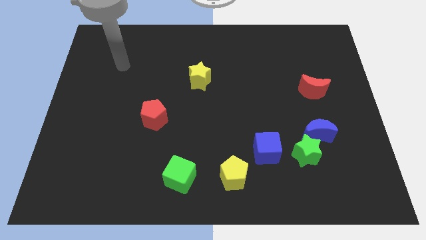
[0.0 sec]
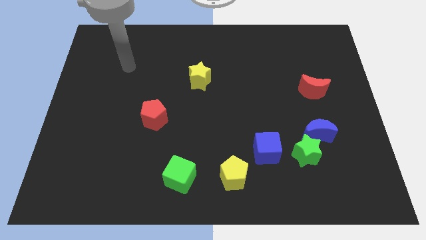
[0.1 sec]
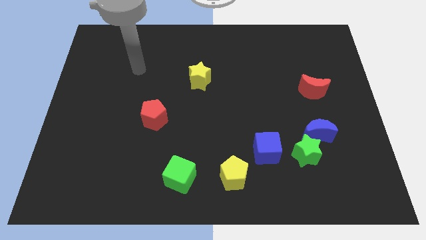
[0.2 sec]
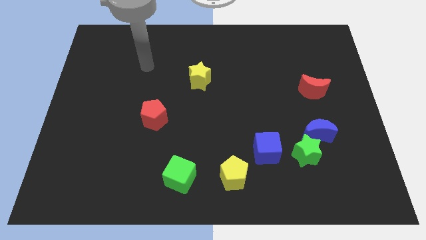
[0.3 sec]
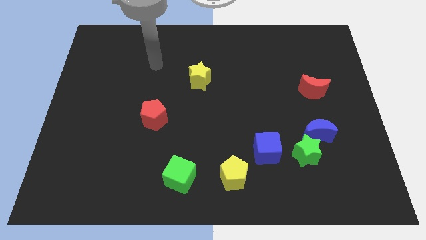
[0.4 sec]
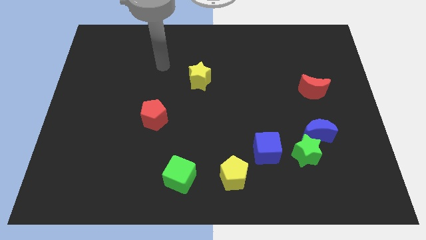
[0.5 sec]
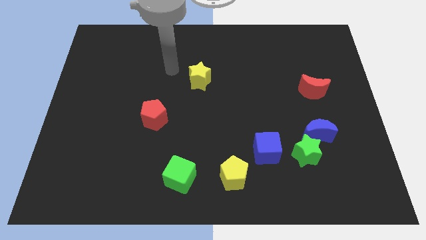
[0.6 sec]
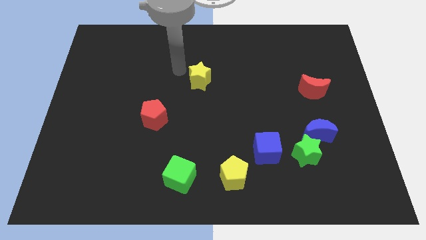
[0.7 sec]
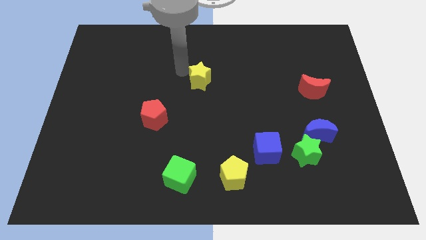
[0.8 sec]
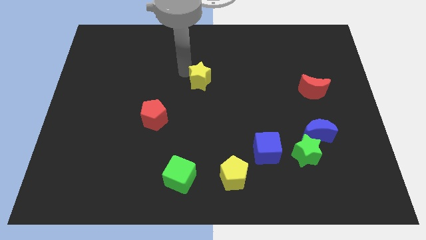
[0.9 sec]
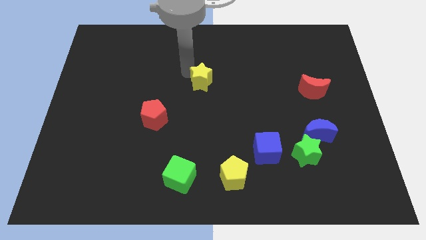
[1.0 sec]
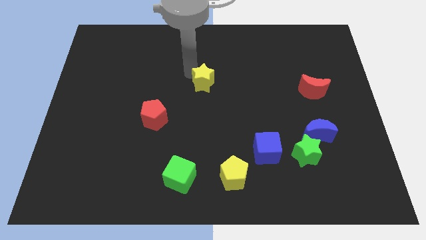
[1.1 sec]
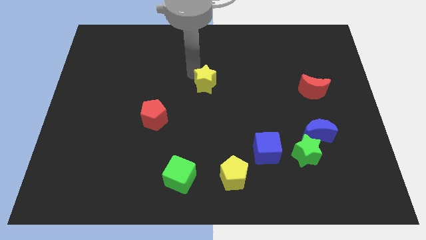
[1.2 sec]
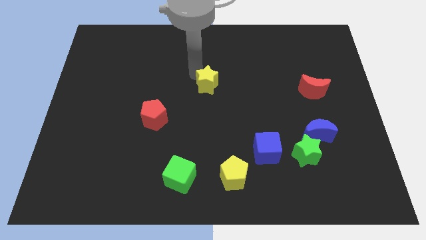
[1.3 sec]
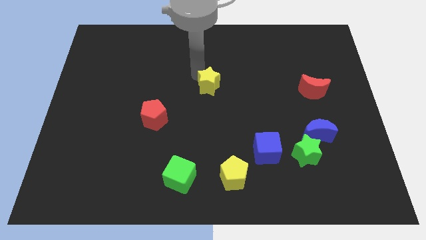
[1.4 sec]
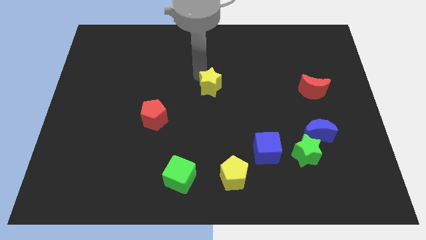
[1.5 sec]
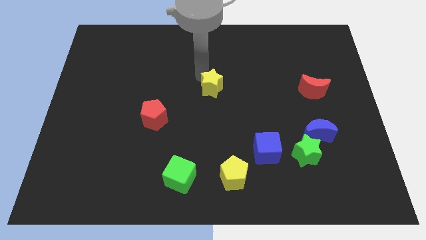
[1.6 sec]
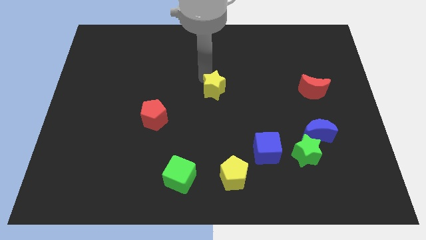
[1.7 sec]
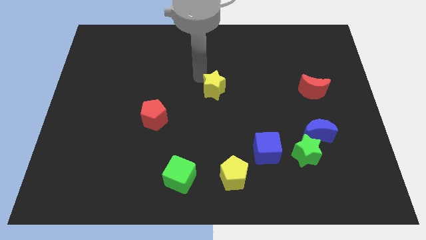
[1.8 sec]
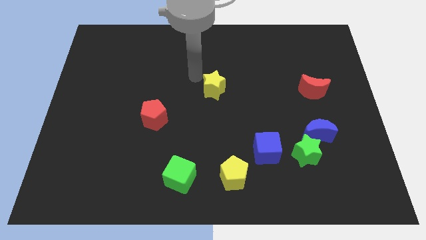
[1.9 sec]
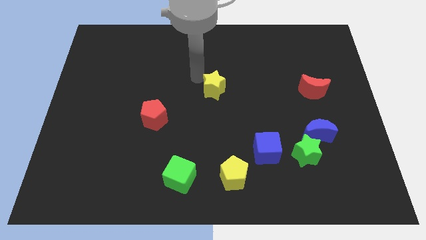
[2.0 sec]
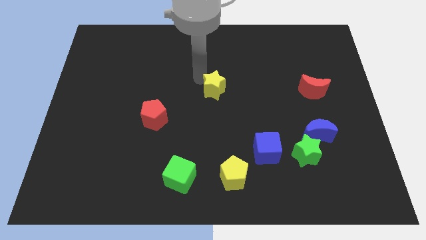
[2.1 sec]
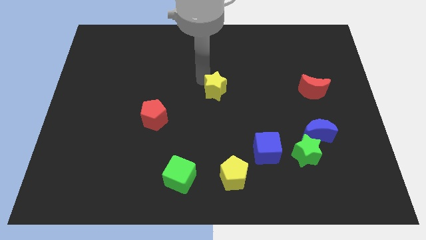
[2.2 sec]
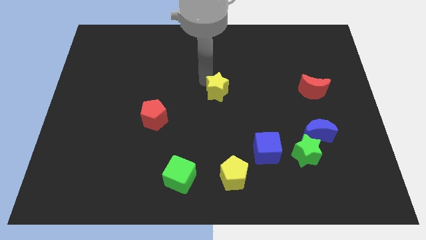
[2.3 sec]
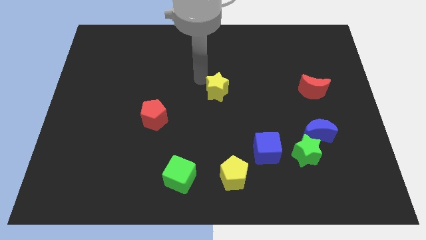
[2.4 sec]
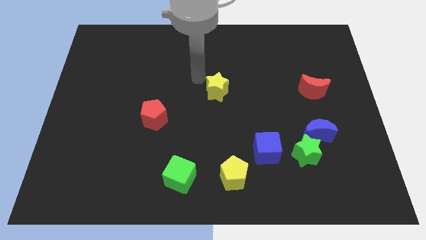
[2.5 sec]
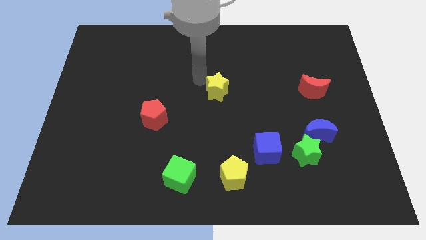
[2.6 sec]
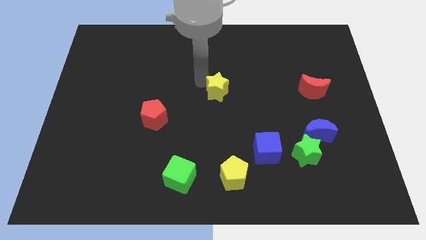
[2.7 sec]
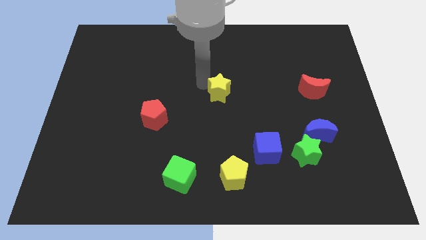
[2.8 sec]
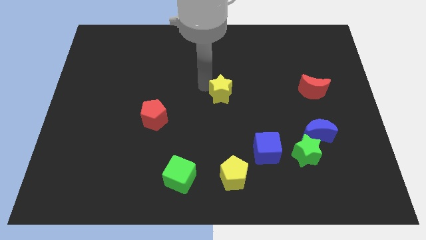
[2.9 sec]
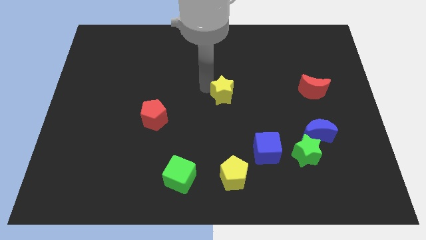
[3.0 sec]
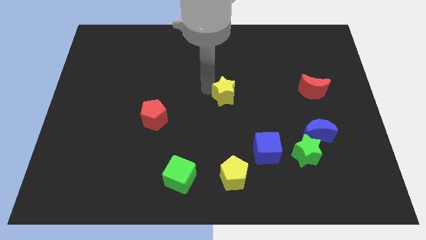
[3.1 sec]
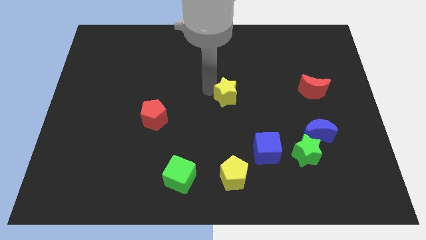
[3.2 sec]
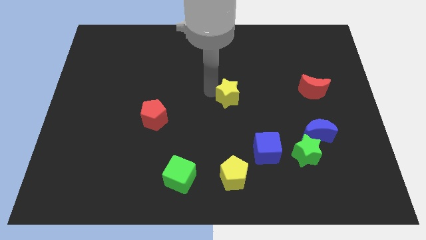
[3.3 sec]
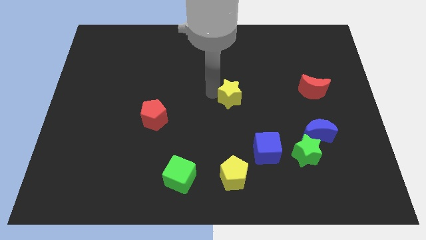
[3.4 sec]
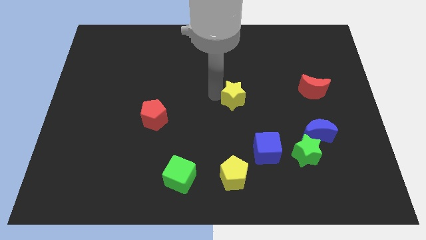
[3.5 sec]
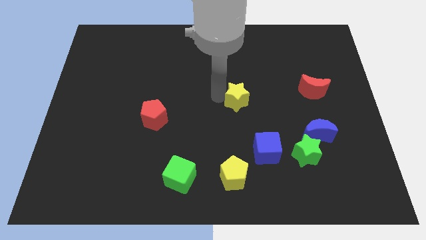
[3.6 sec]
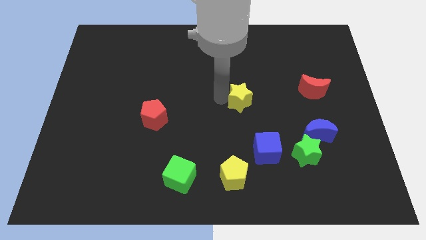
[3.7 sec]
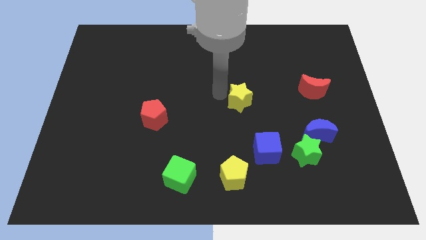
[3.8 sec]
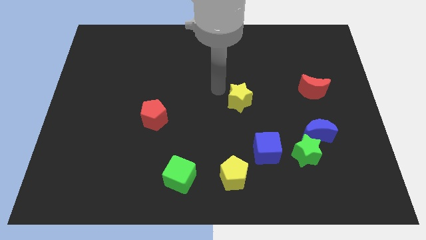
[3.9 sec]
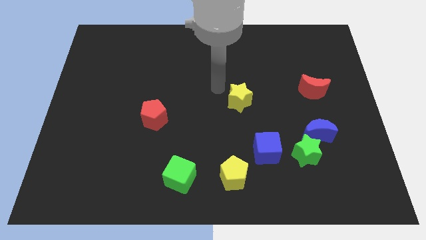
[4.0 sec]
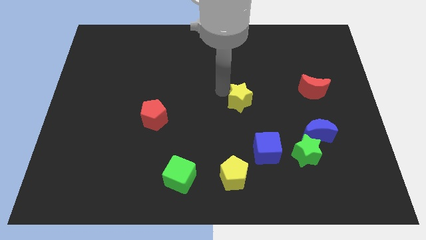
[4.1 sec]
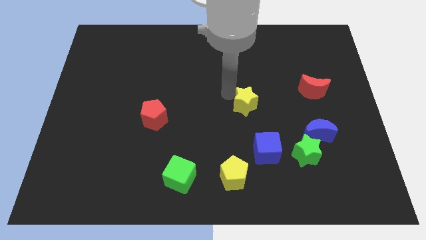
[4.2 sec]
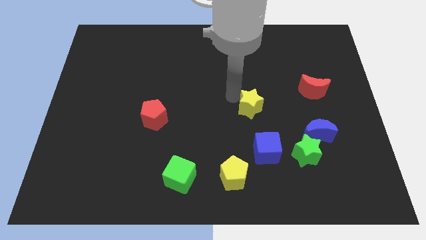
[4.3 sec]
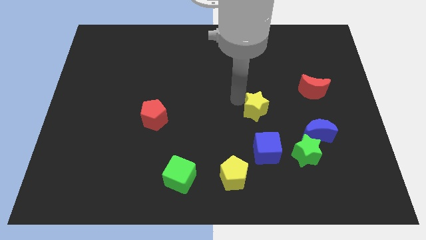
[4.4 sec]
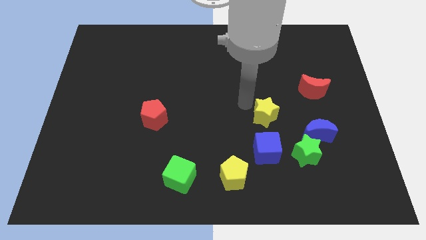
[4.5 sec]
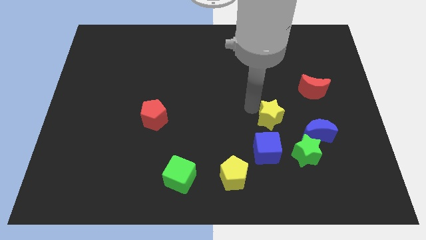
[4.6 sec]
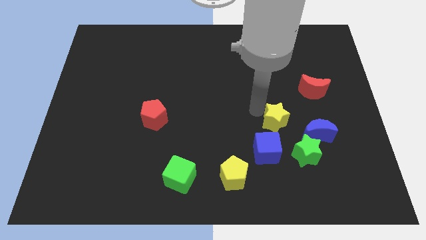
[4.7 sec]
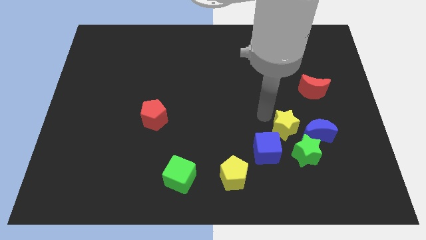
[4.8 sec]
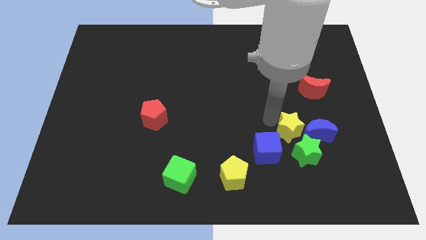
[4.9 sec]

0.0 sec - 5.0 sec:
move the yellow star to the blue moon

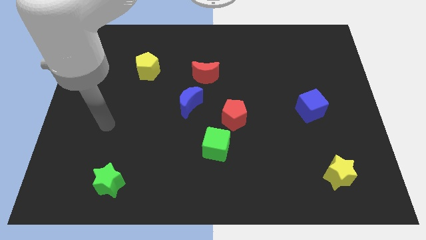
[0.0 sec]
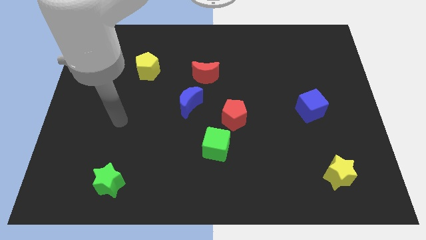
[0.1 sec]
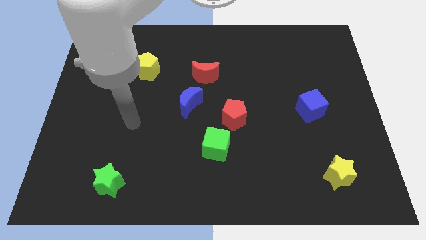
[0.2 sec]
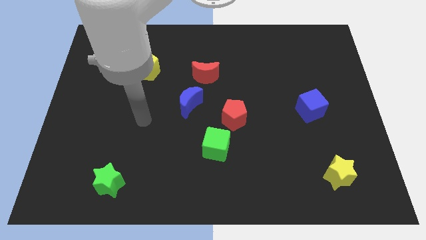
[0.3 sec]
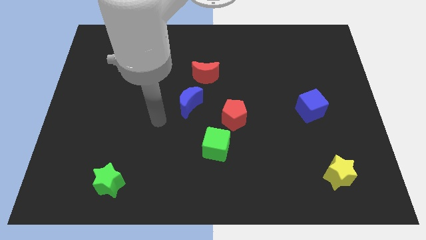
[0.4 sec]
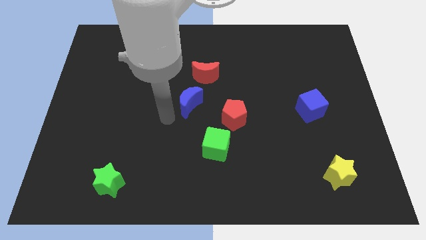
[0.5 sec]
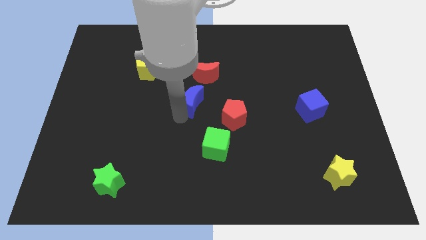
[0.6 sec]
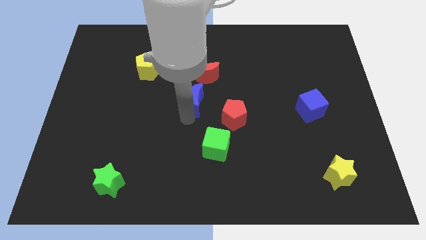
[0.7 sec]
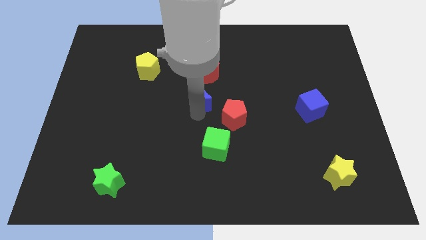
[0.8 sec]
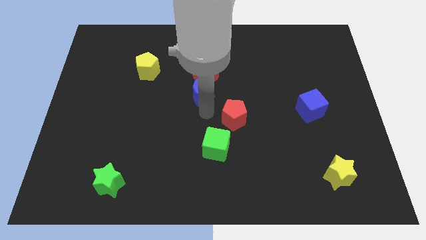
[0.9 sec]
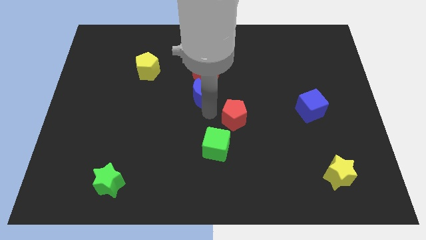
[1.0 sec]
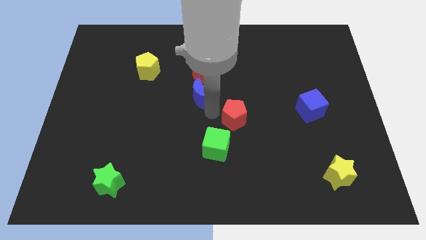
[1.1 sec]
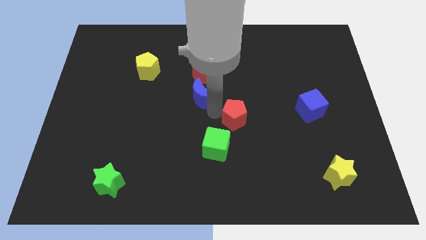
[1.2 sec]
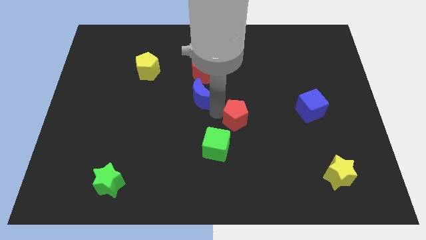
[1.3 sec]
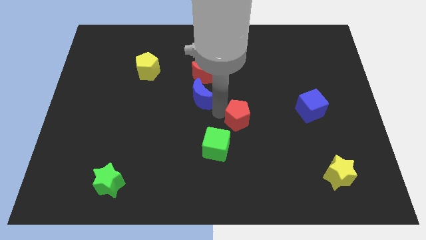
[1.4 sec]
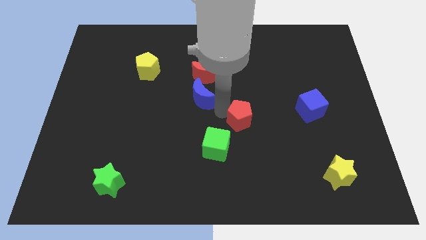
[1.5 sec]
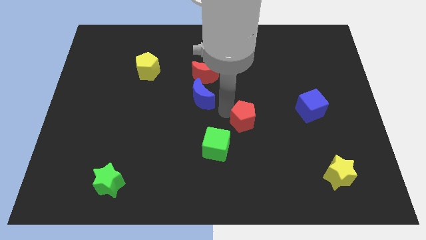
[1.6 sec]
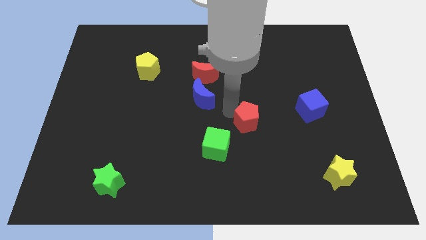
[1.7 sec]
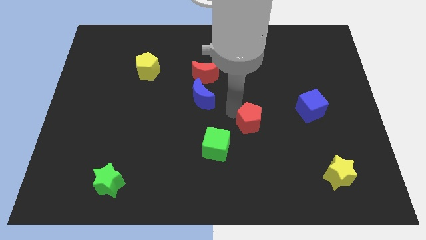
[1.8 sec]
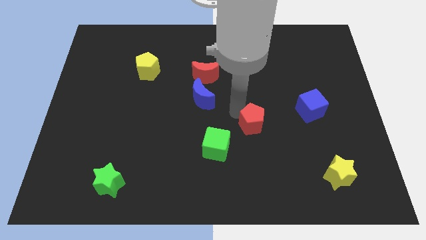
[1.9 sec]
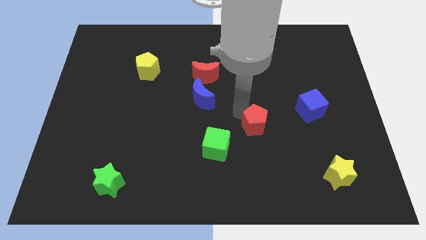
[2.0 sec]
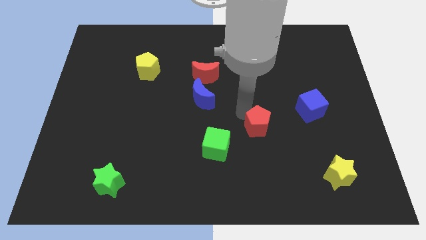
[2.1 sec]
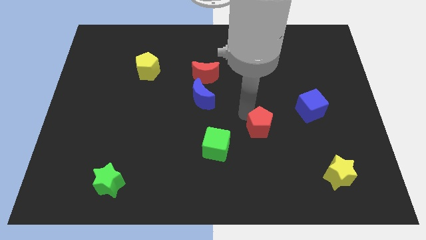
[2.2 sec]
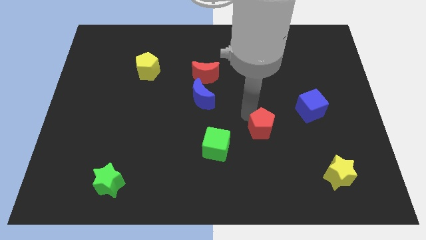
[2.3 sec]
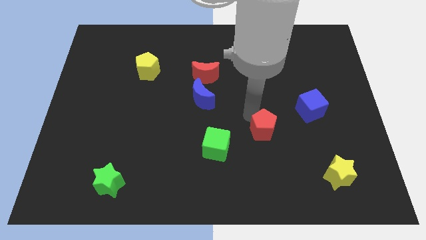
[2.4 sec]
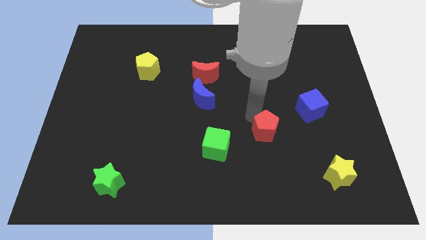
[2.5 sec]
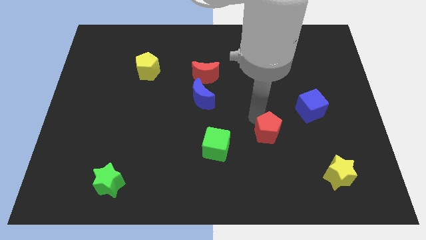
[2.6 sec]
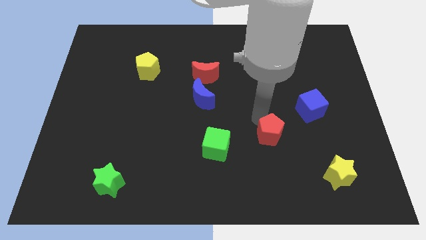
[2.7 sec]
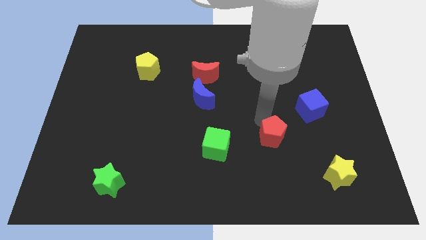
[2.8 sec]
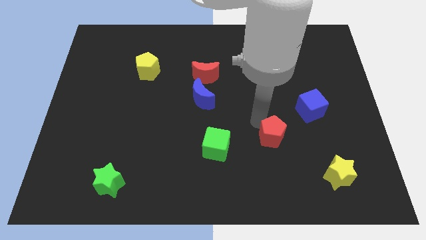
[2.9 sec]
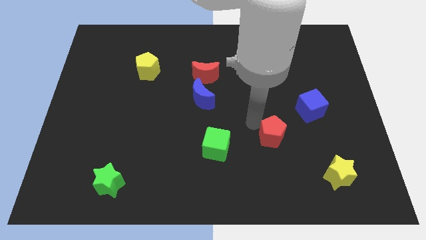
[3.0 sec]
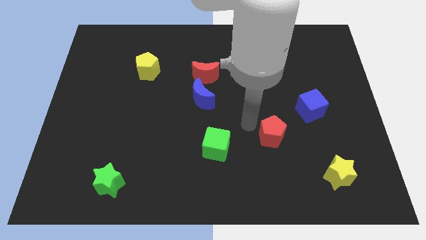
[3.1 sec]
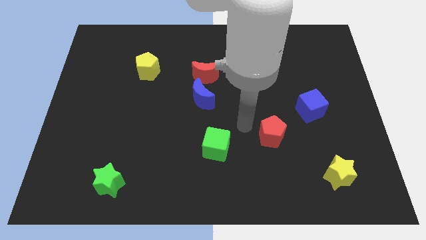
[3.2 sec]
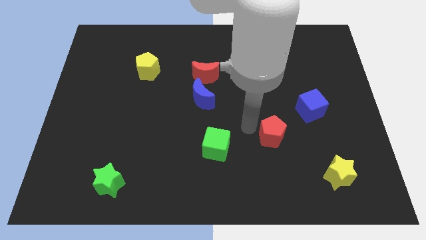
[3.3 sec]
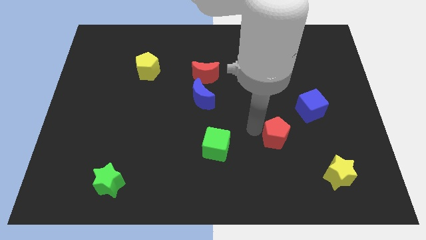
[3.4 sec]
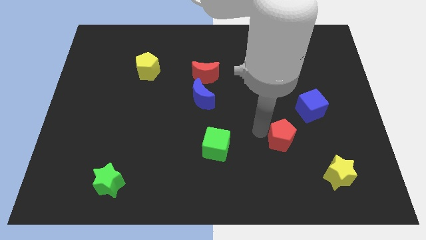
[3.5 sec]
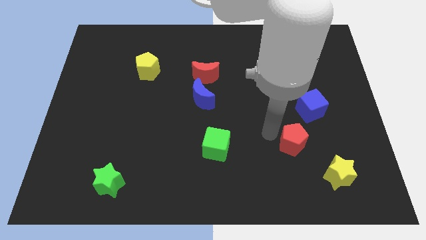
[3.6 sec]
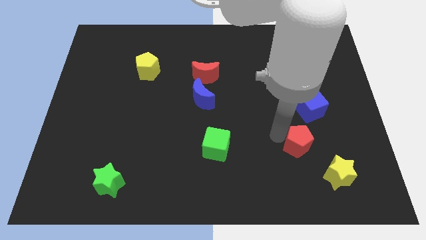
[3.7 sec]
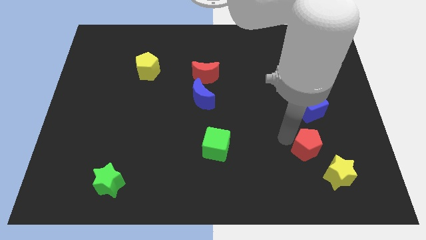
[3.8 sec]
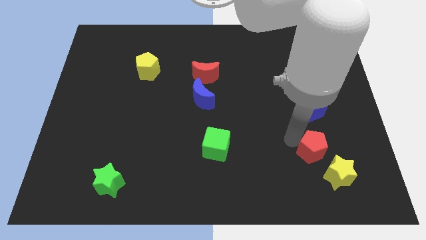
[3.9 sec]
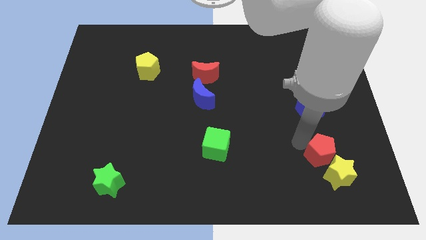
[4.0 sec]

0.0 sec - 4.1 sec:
move the red pentagon to the yellow star
